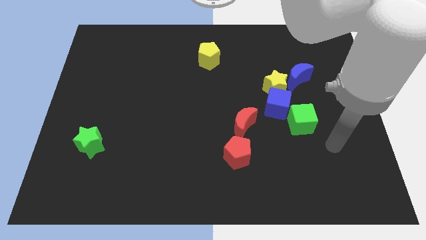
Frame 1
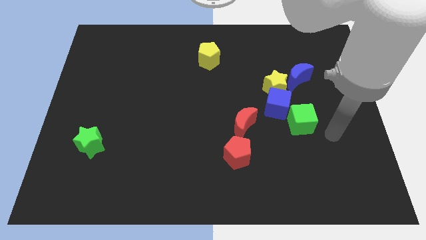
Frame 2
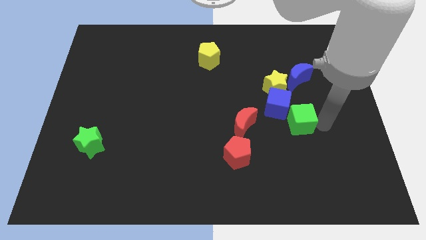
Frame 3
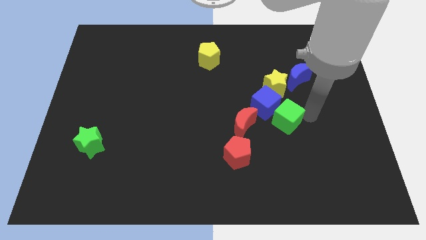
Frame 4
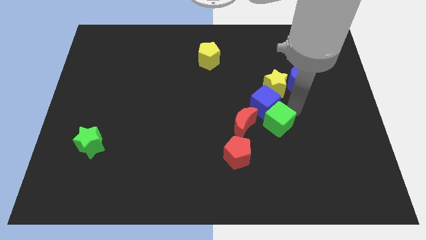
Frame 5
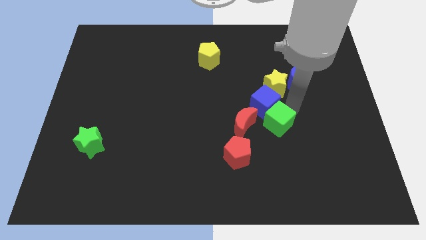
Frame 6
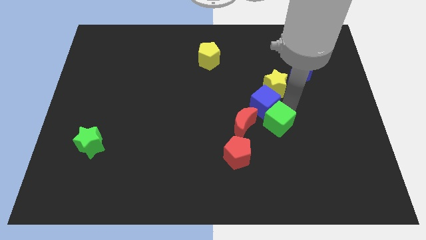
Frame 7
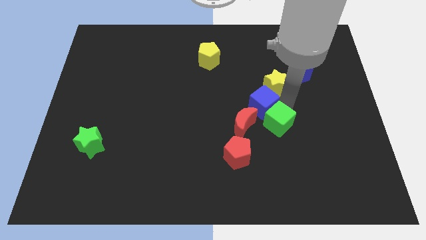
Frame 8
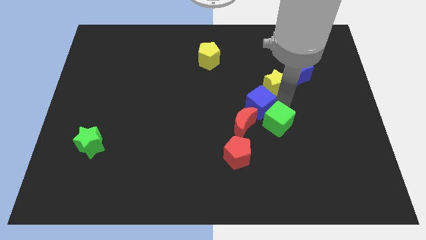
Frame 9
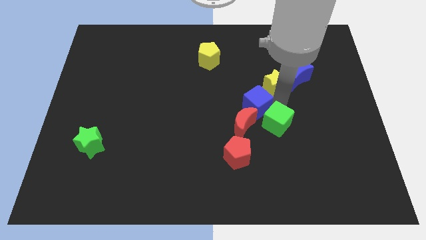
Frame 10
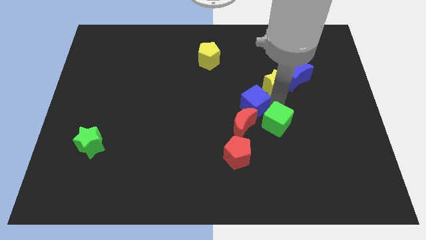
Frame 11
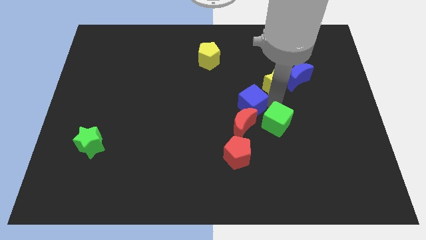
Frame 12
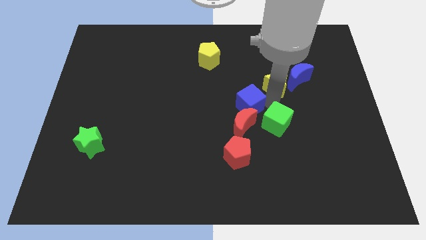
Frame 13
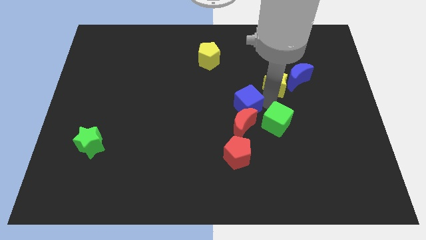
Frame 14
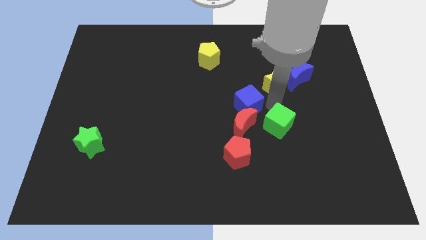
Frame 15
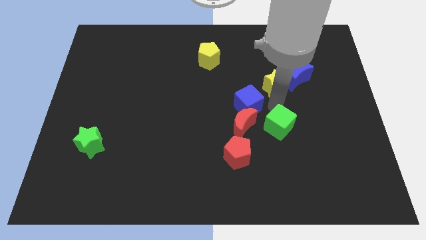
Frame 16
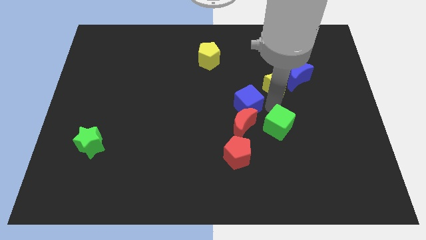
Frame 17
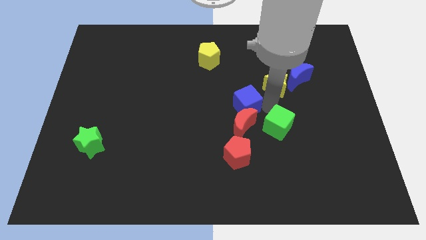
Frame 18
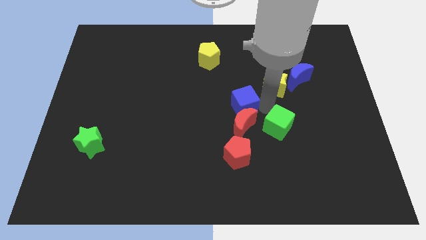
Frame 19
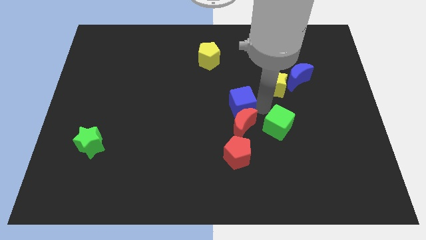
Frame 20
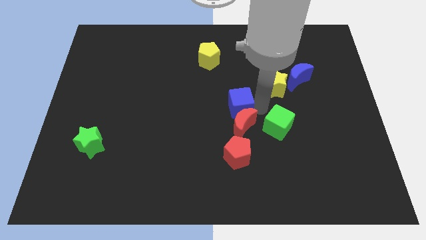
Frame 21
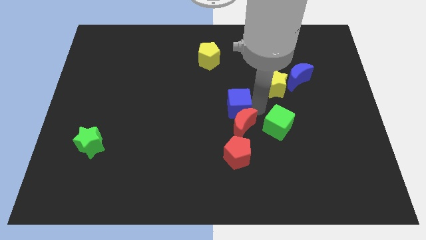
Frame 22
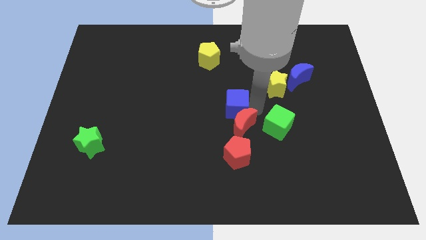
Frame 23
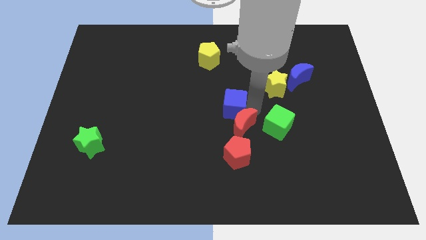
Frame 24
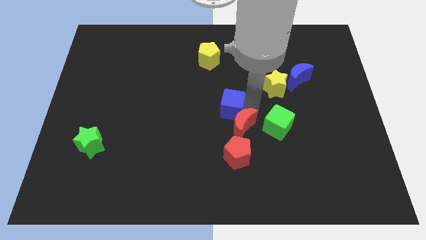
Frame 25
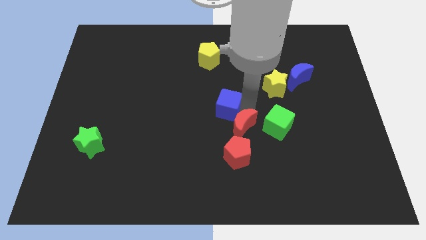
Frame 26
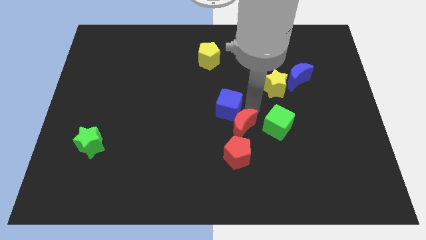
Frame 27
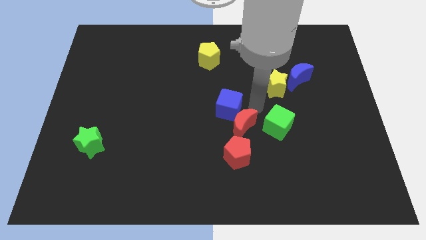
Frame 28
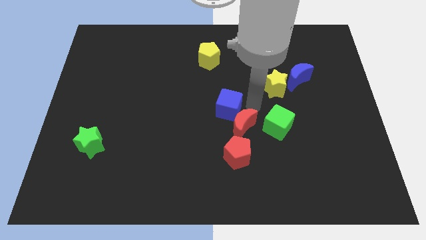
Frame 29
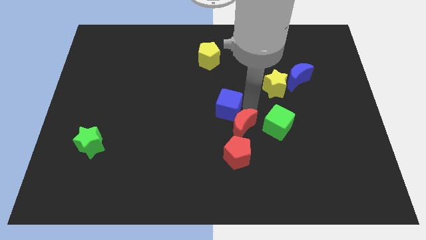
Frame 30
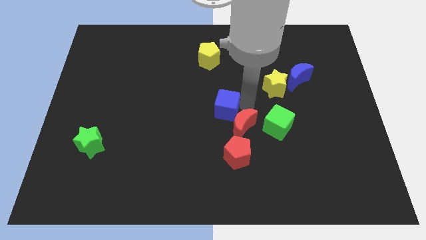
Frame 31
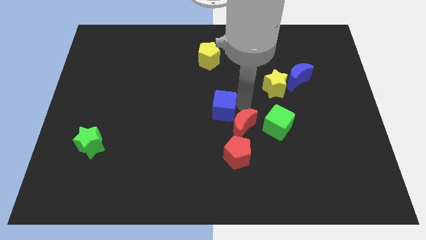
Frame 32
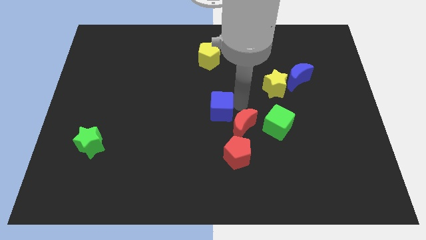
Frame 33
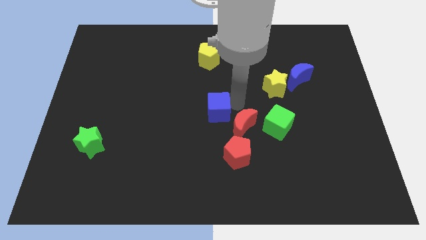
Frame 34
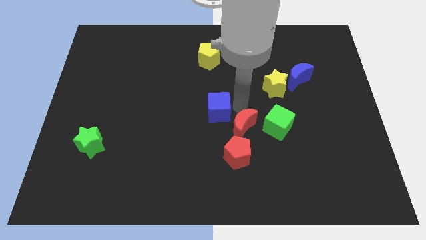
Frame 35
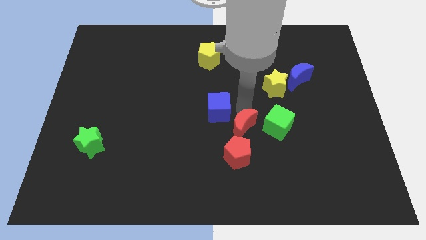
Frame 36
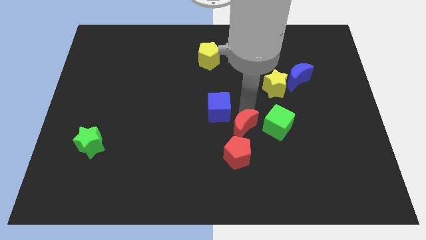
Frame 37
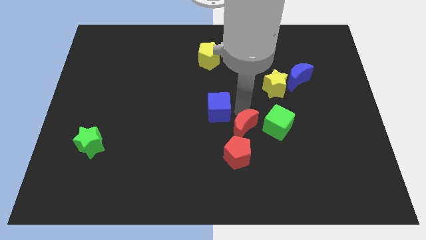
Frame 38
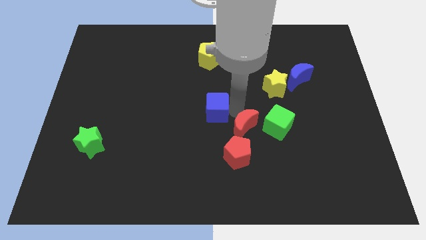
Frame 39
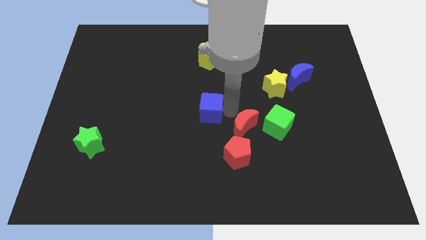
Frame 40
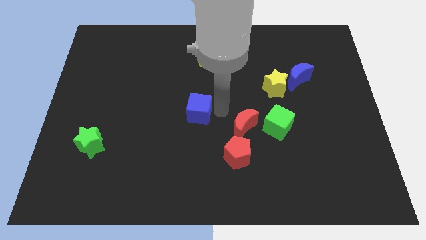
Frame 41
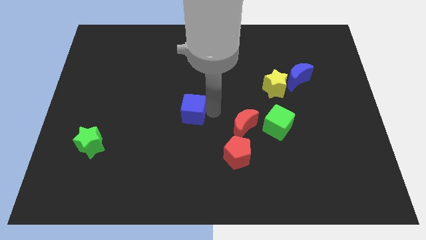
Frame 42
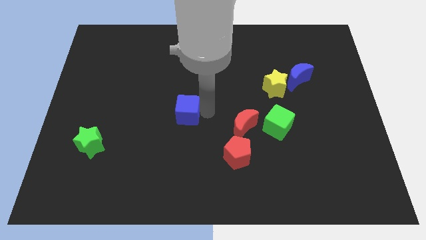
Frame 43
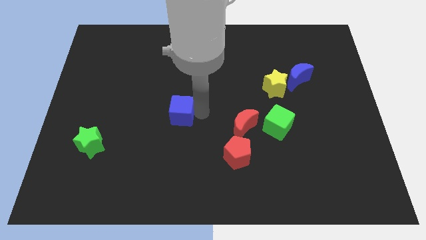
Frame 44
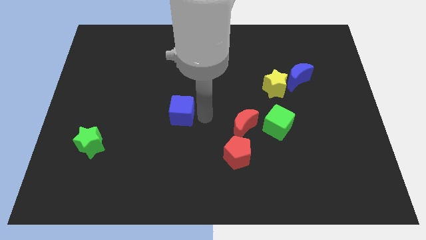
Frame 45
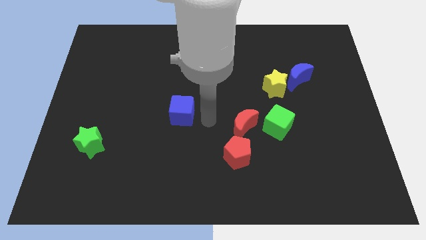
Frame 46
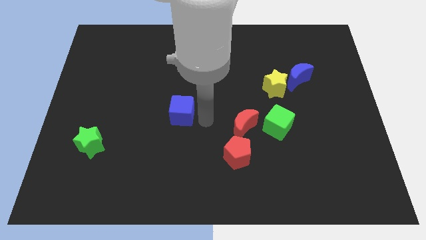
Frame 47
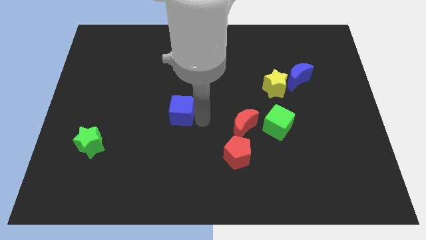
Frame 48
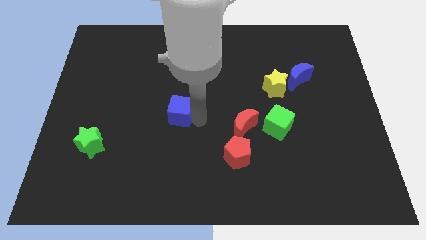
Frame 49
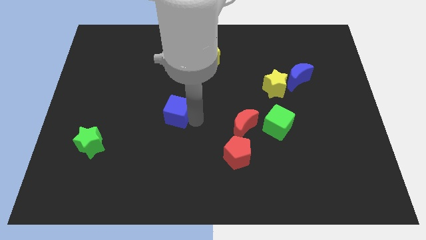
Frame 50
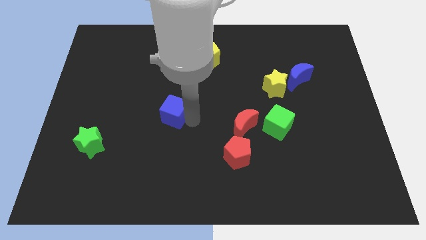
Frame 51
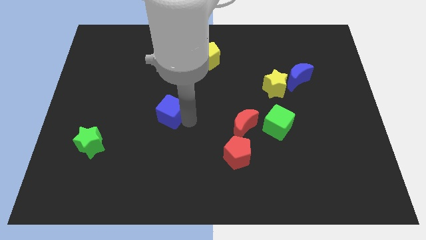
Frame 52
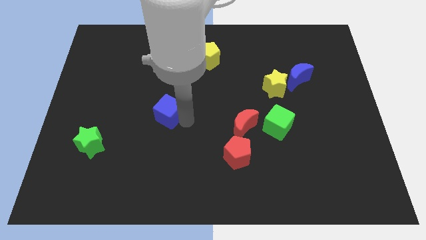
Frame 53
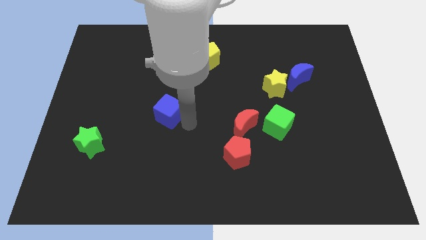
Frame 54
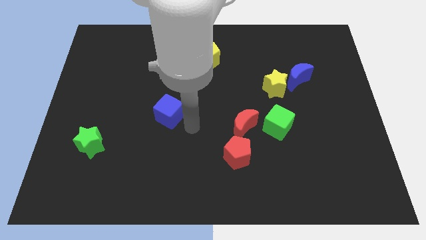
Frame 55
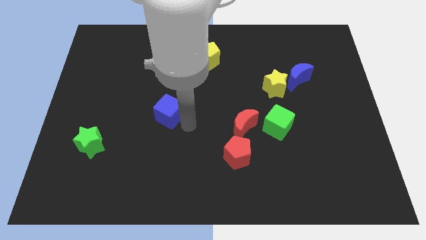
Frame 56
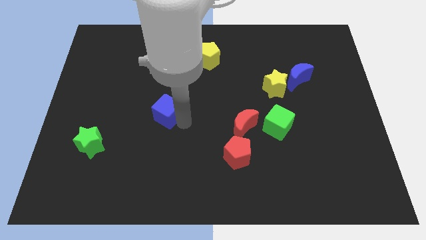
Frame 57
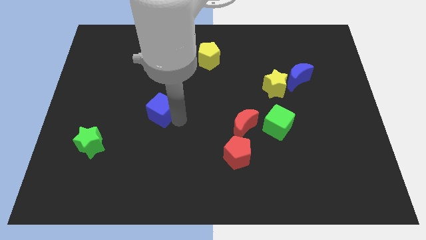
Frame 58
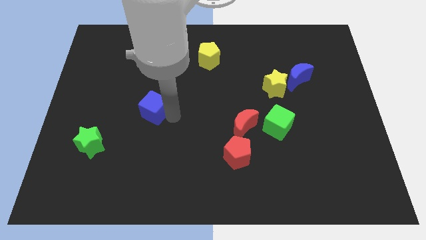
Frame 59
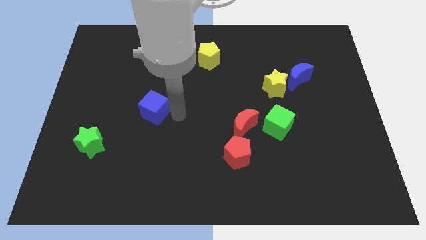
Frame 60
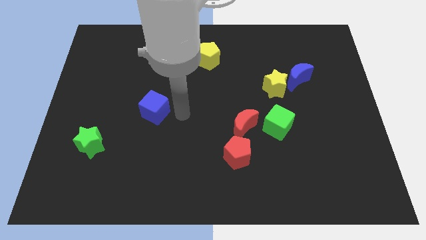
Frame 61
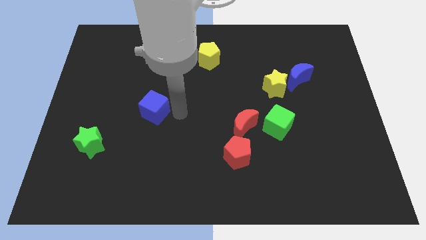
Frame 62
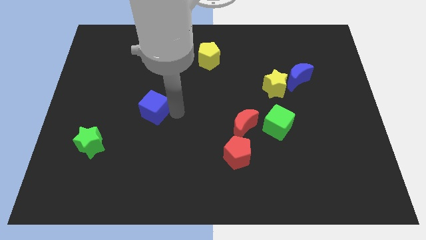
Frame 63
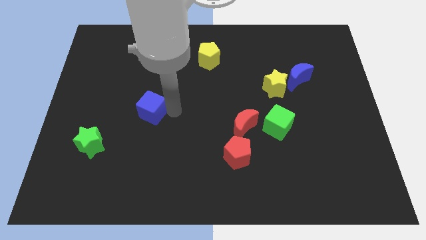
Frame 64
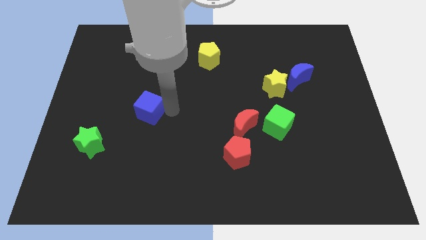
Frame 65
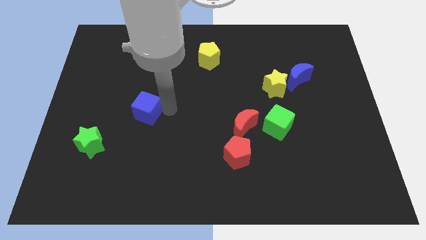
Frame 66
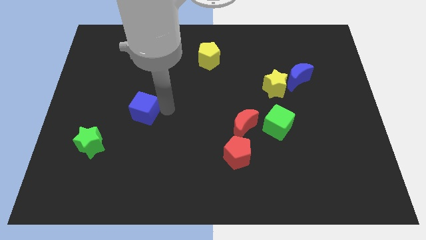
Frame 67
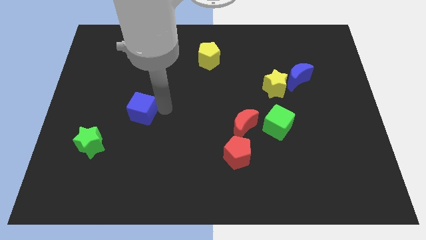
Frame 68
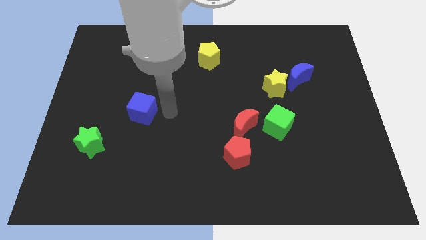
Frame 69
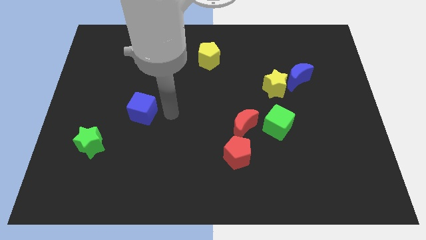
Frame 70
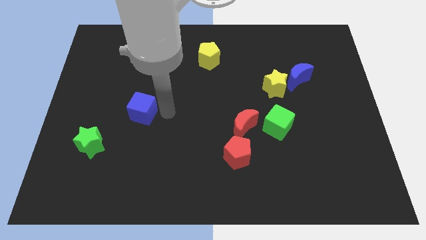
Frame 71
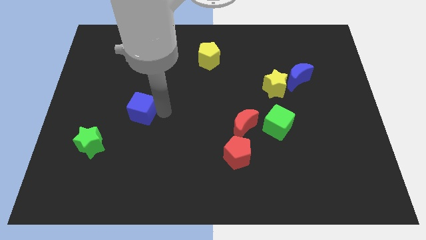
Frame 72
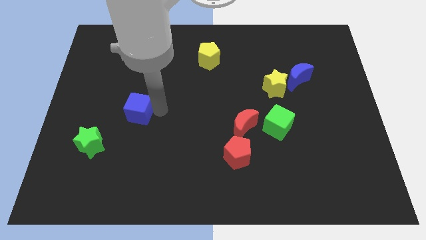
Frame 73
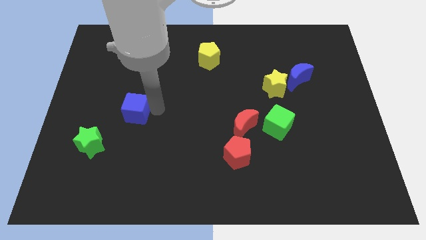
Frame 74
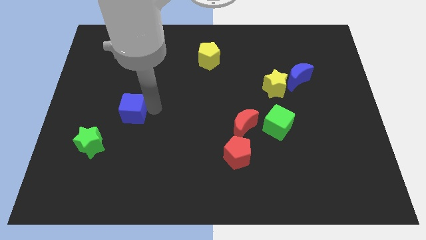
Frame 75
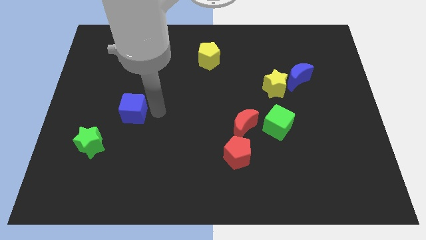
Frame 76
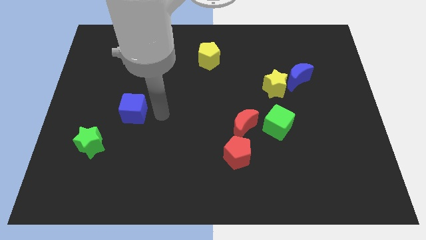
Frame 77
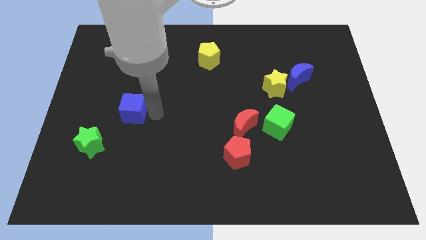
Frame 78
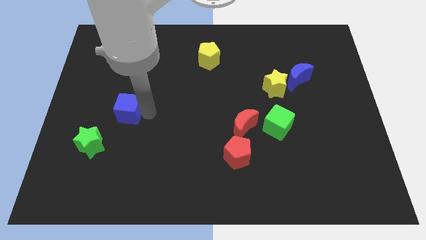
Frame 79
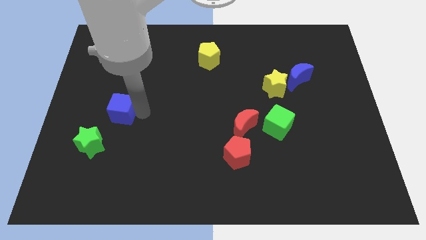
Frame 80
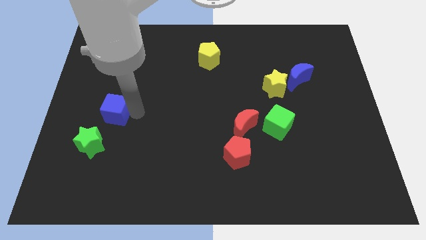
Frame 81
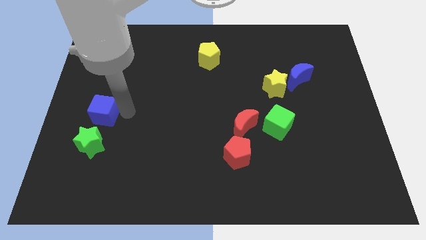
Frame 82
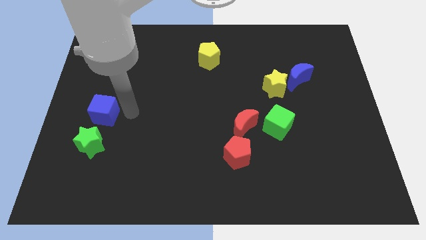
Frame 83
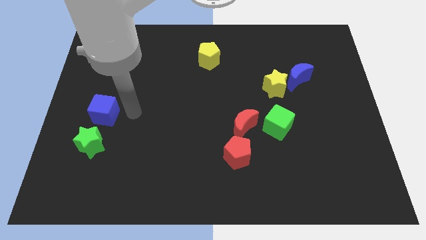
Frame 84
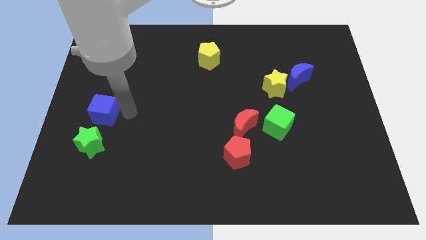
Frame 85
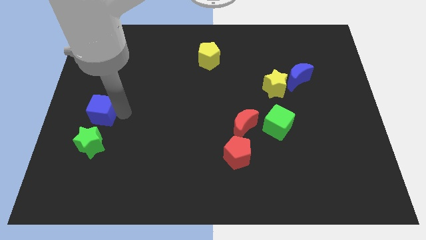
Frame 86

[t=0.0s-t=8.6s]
push the blue cube to the left side of the board
